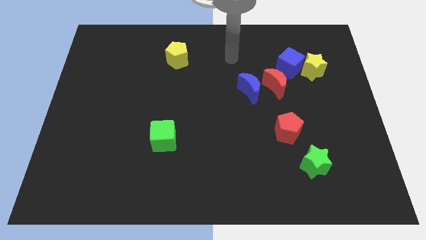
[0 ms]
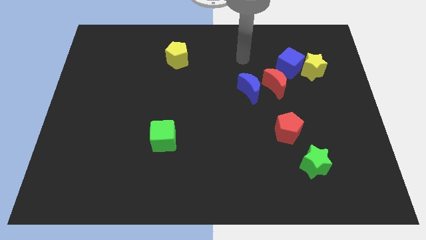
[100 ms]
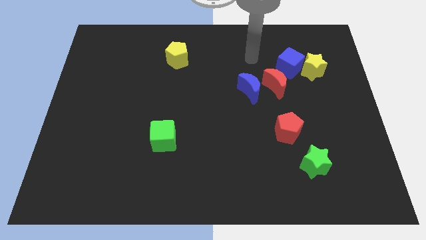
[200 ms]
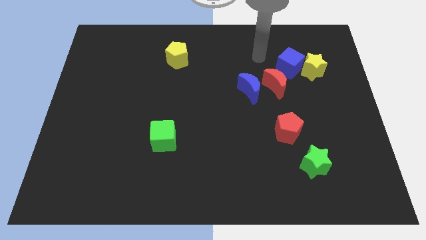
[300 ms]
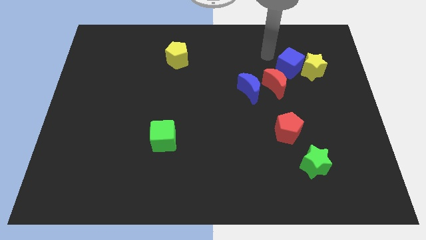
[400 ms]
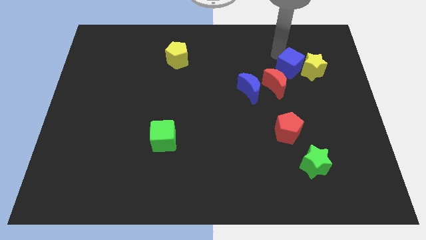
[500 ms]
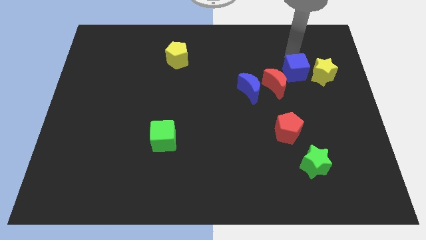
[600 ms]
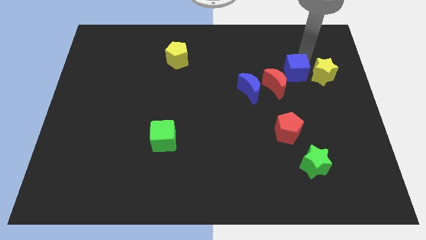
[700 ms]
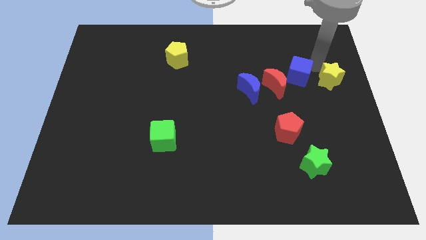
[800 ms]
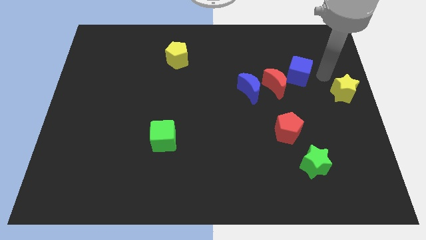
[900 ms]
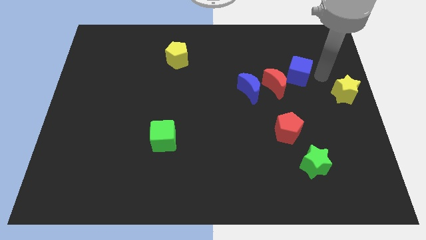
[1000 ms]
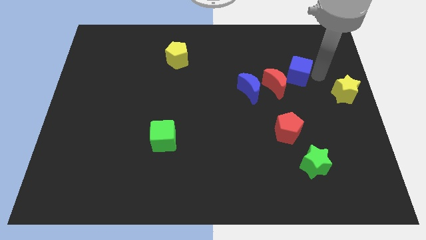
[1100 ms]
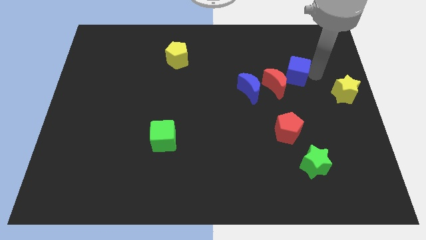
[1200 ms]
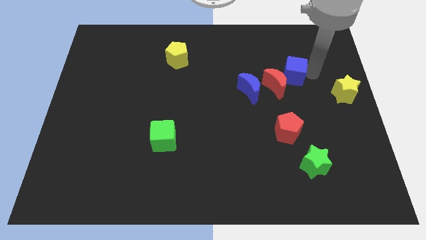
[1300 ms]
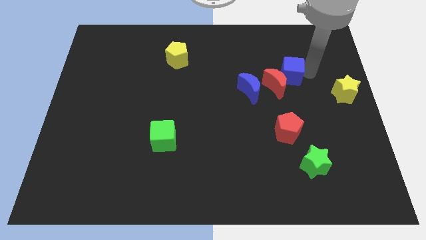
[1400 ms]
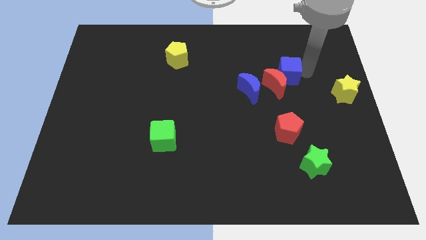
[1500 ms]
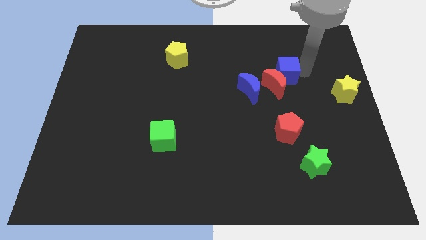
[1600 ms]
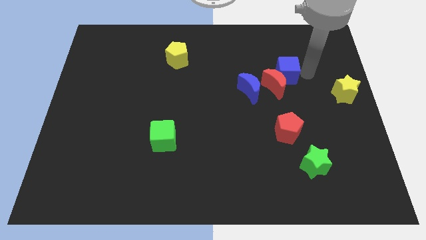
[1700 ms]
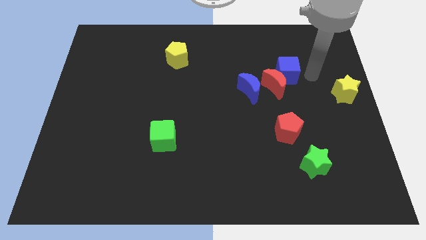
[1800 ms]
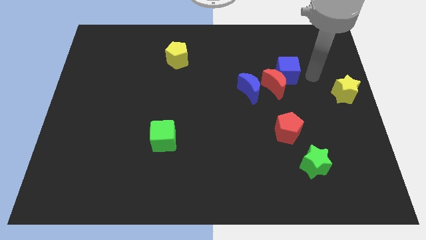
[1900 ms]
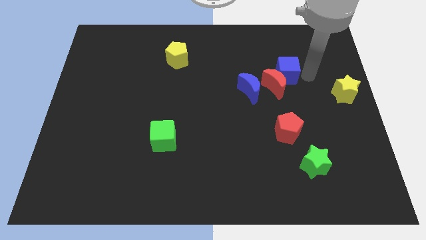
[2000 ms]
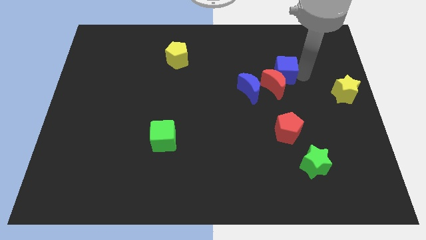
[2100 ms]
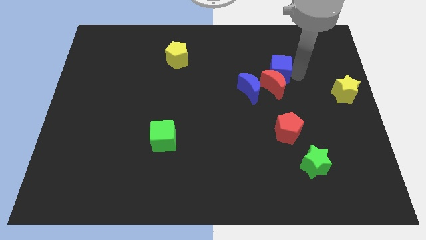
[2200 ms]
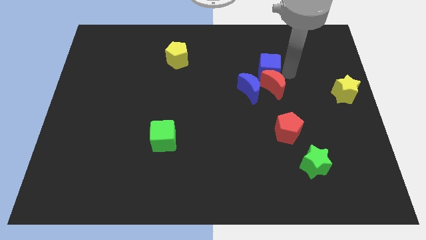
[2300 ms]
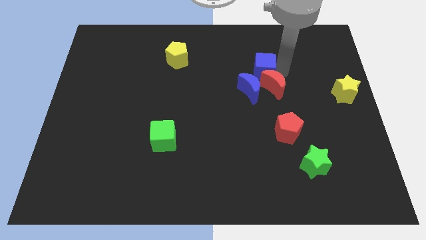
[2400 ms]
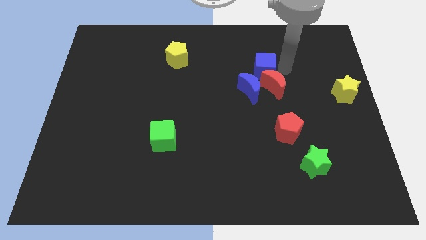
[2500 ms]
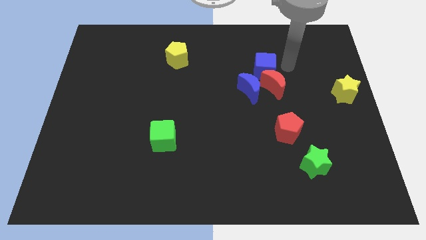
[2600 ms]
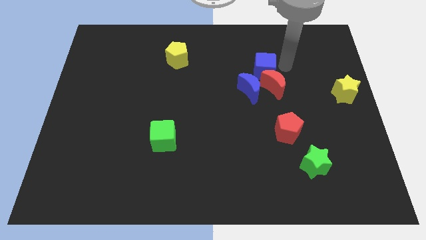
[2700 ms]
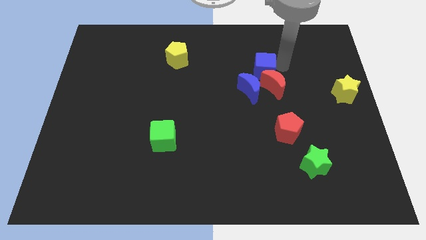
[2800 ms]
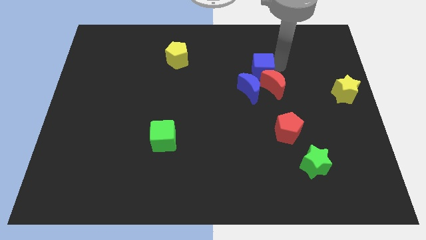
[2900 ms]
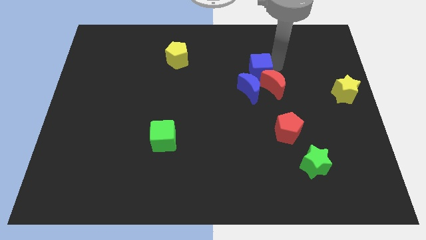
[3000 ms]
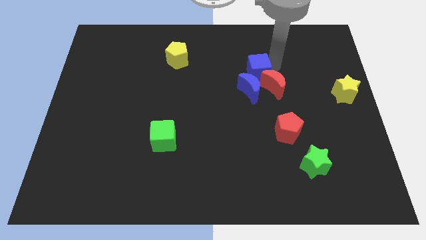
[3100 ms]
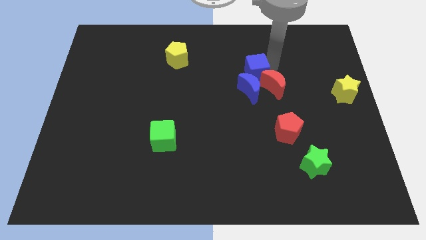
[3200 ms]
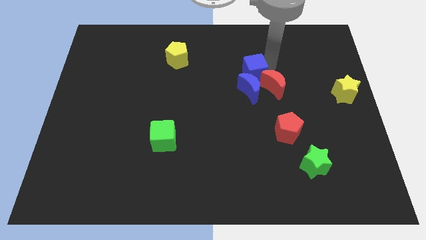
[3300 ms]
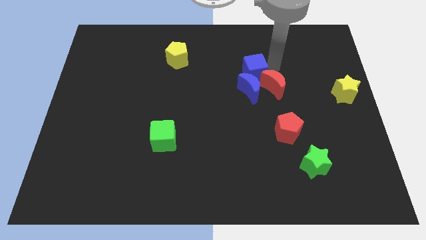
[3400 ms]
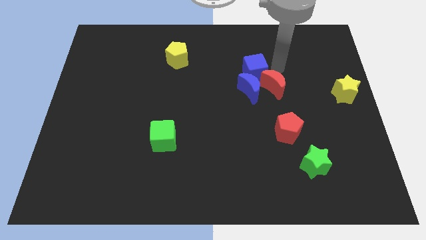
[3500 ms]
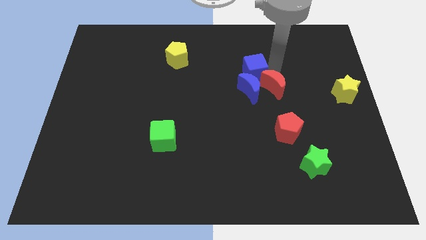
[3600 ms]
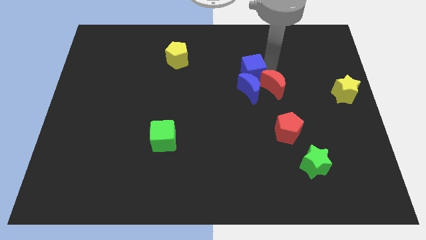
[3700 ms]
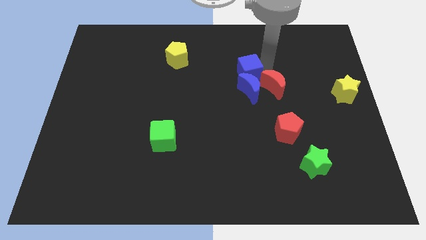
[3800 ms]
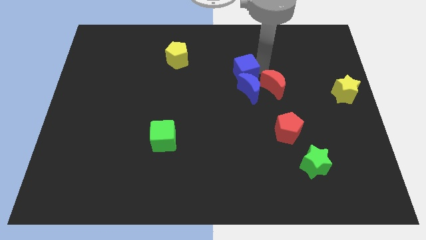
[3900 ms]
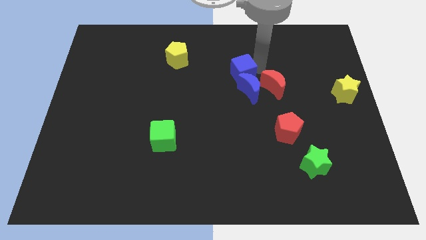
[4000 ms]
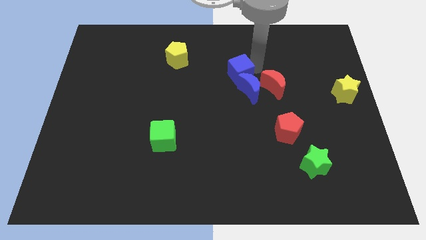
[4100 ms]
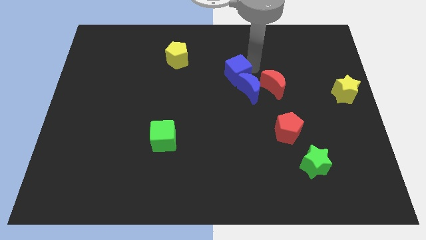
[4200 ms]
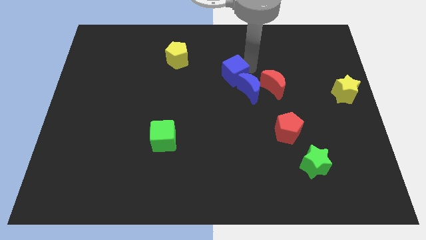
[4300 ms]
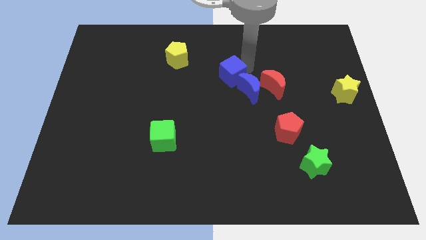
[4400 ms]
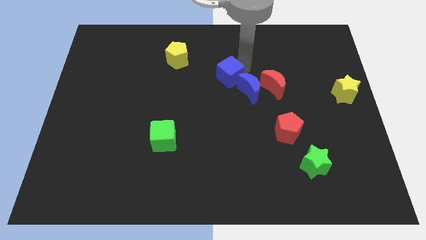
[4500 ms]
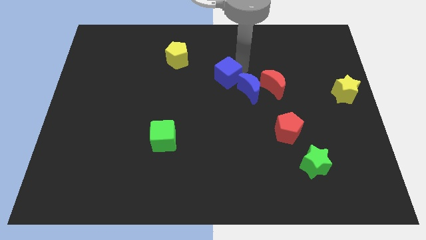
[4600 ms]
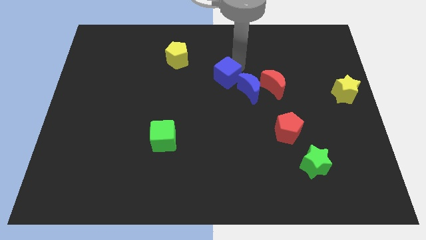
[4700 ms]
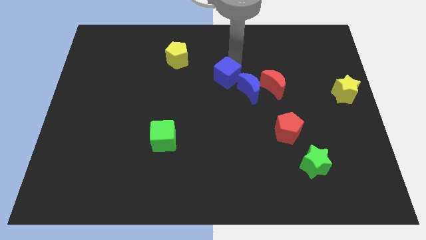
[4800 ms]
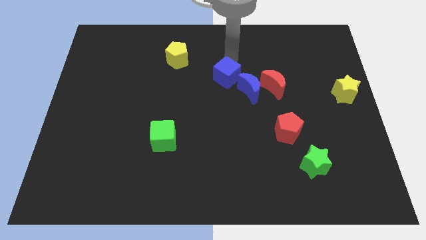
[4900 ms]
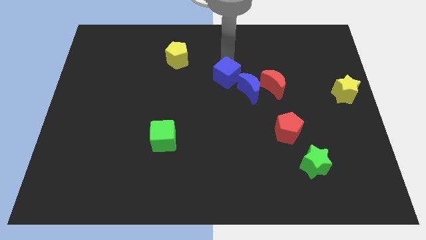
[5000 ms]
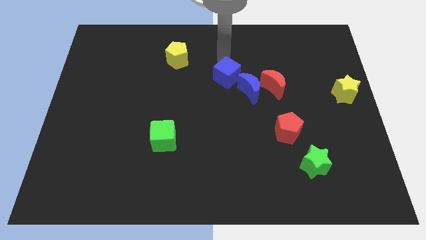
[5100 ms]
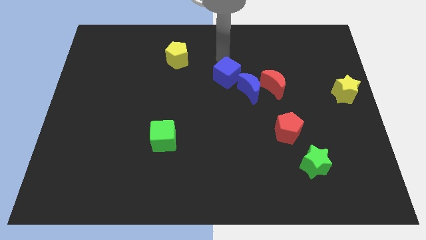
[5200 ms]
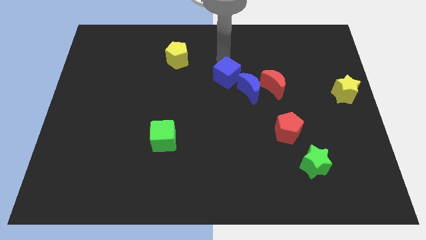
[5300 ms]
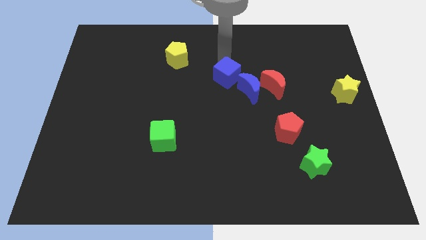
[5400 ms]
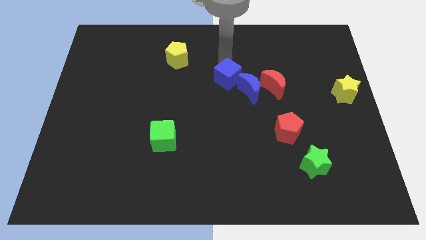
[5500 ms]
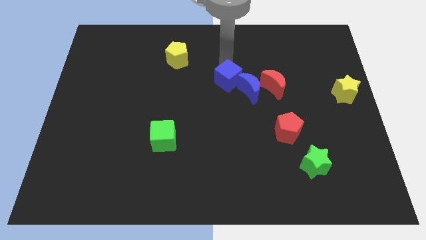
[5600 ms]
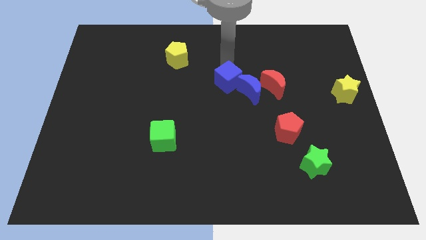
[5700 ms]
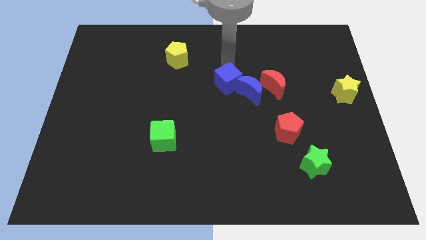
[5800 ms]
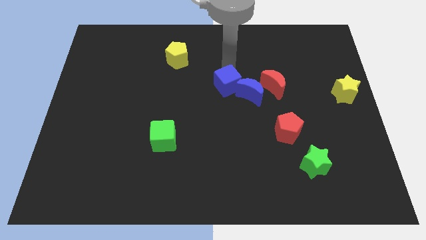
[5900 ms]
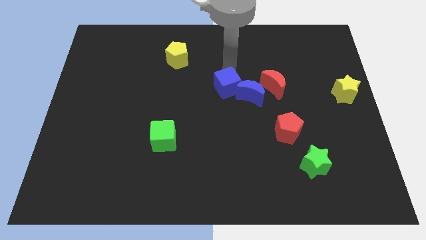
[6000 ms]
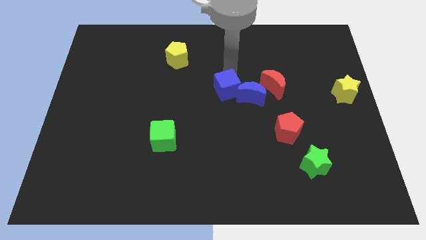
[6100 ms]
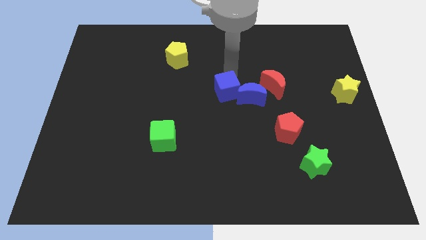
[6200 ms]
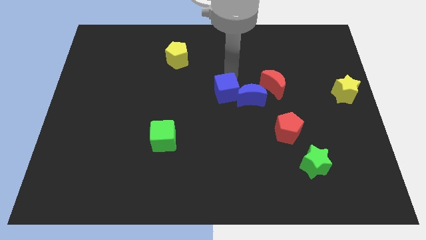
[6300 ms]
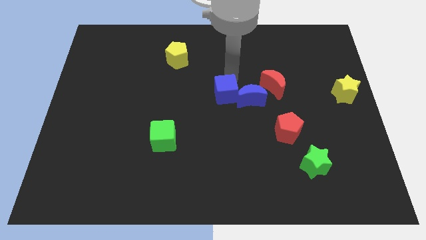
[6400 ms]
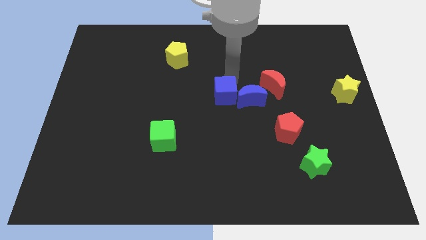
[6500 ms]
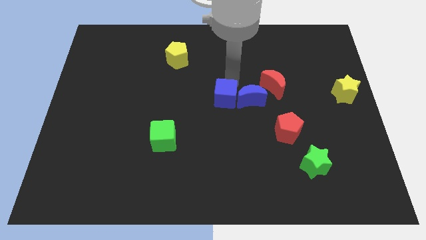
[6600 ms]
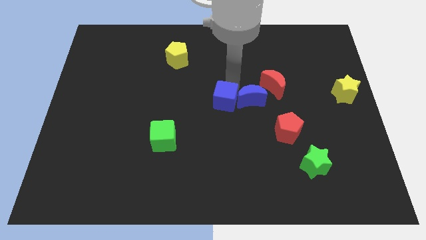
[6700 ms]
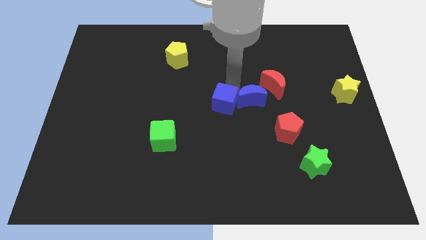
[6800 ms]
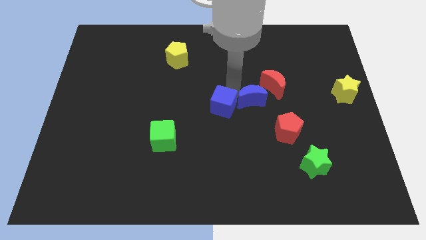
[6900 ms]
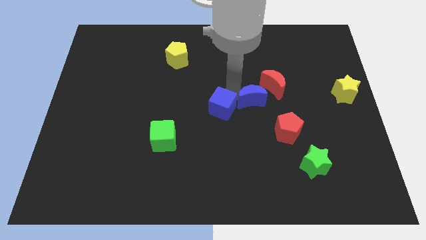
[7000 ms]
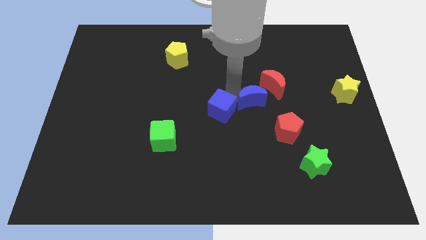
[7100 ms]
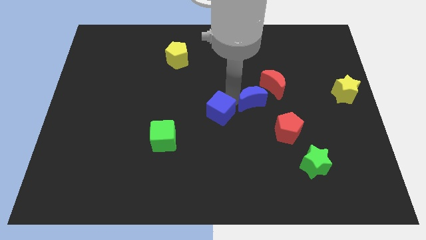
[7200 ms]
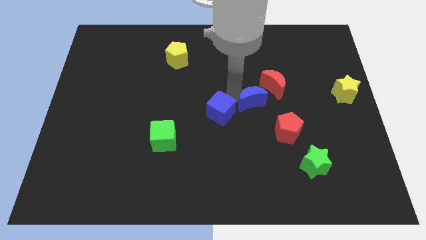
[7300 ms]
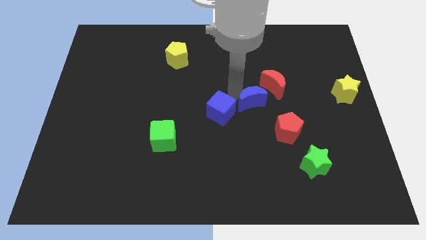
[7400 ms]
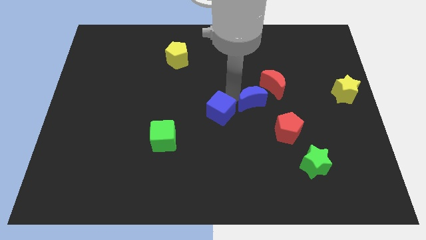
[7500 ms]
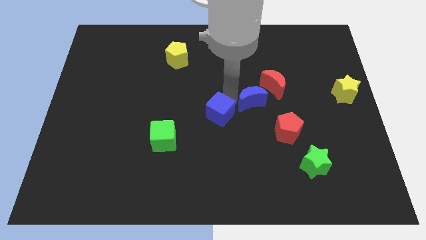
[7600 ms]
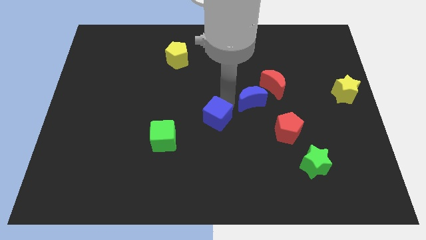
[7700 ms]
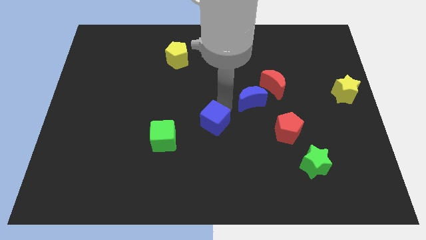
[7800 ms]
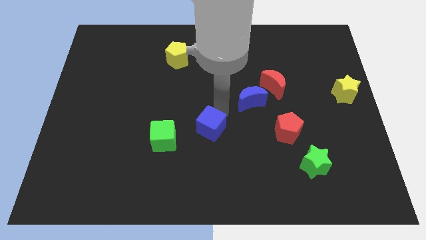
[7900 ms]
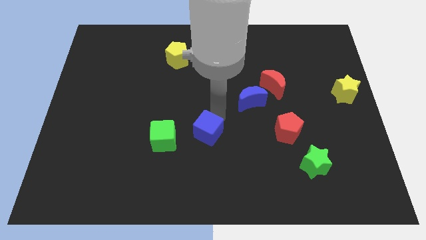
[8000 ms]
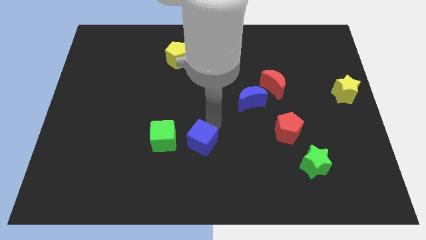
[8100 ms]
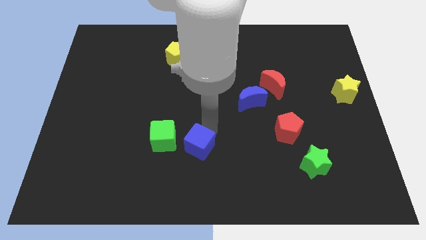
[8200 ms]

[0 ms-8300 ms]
move the blue cube to the bottom right of the green cube
